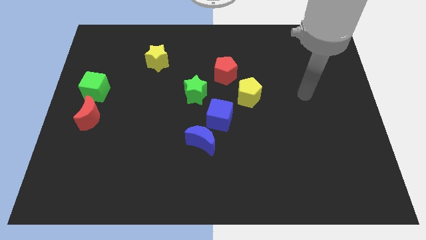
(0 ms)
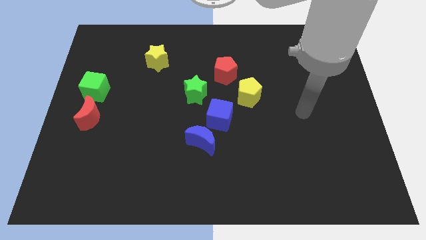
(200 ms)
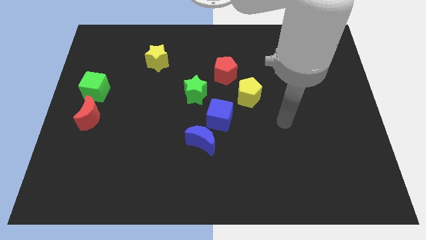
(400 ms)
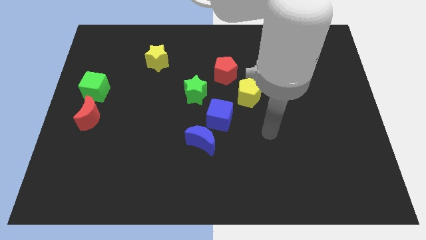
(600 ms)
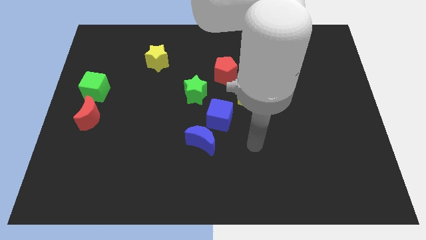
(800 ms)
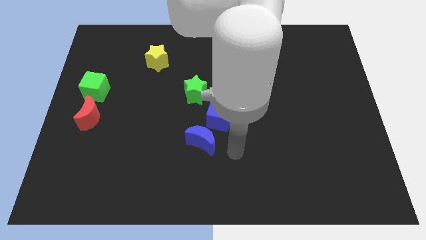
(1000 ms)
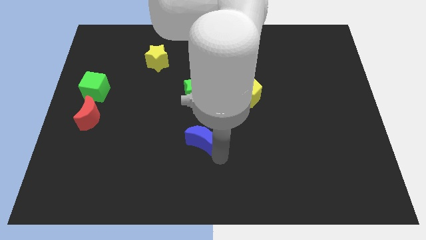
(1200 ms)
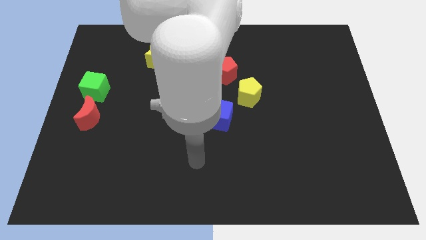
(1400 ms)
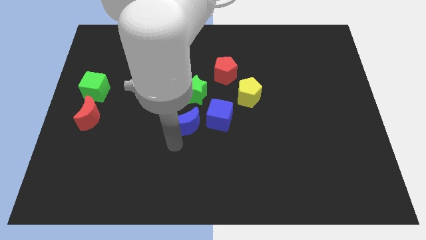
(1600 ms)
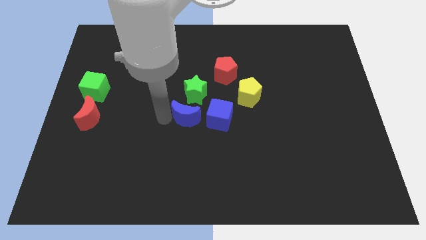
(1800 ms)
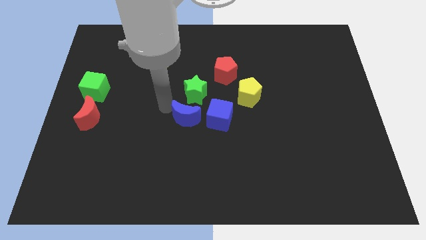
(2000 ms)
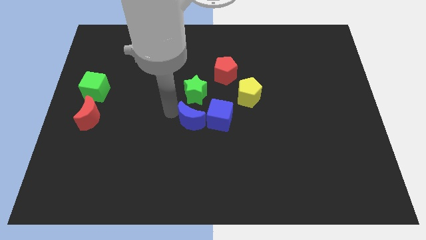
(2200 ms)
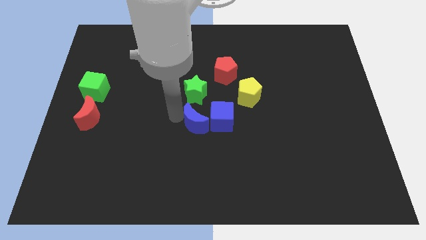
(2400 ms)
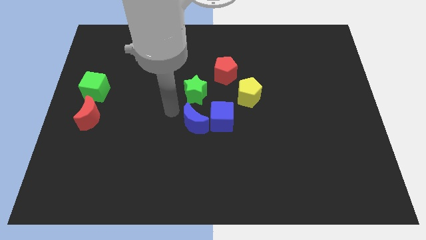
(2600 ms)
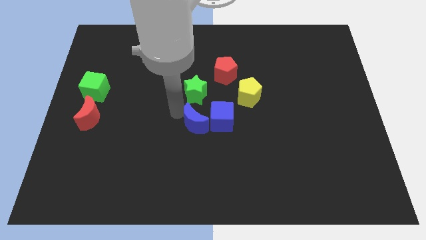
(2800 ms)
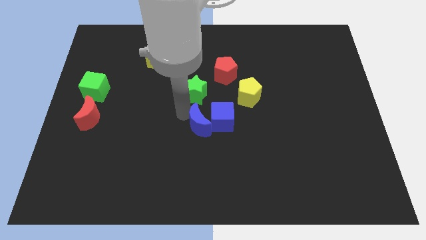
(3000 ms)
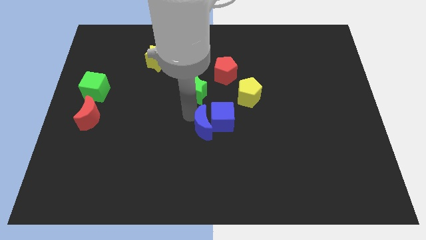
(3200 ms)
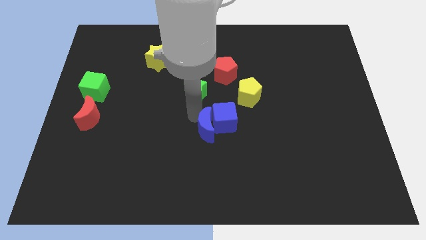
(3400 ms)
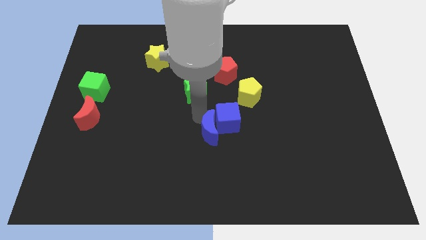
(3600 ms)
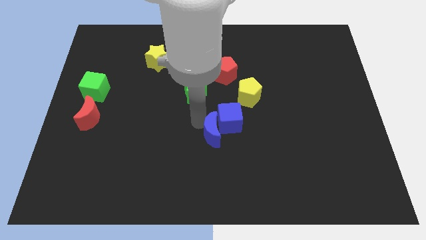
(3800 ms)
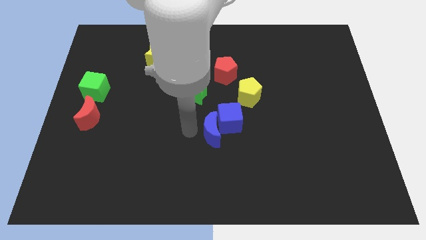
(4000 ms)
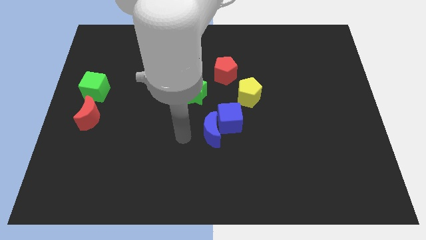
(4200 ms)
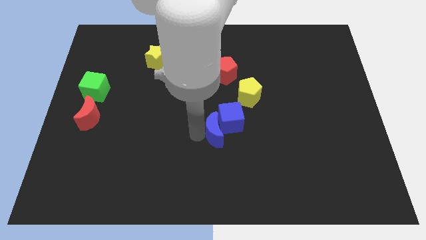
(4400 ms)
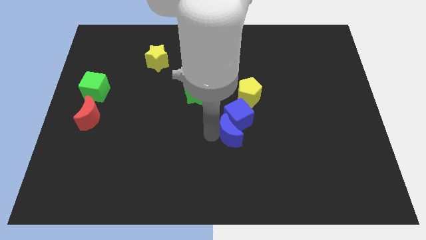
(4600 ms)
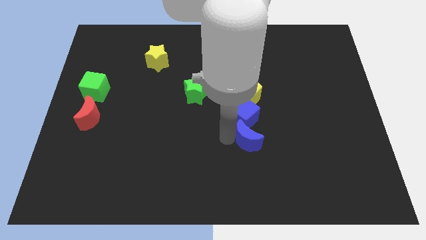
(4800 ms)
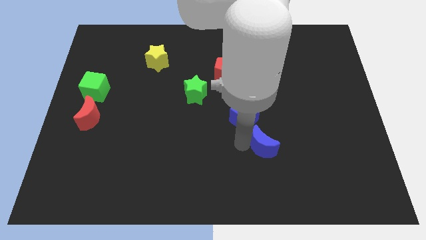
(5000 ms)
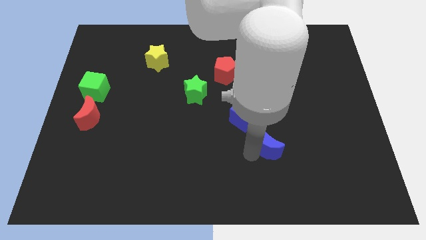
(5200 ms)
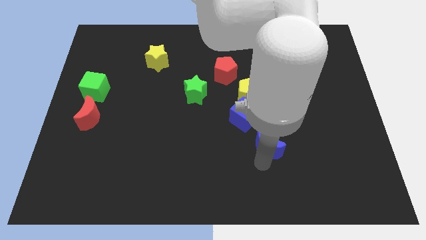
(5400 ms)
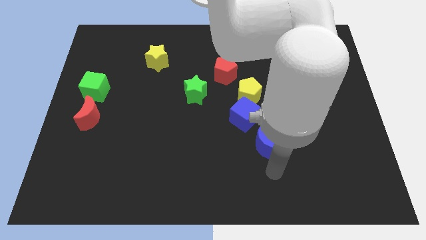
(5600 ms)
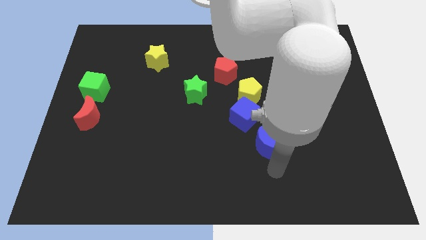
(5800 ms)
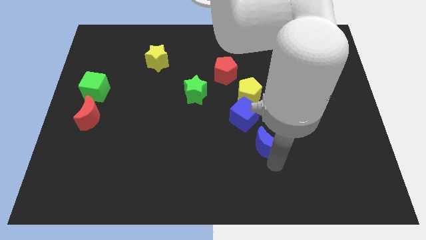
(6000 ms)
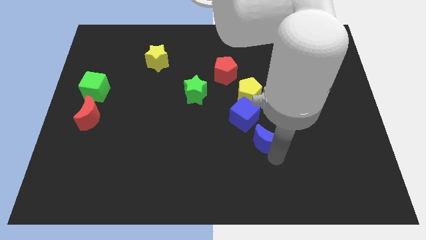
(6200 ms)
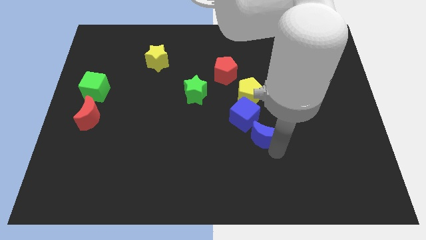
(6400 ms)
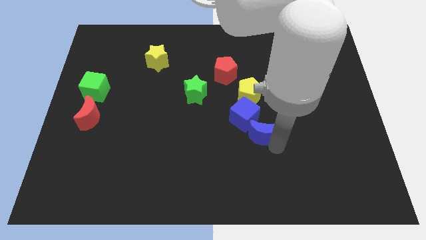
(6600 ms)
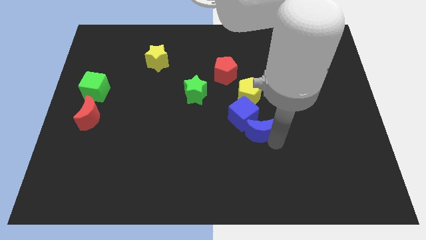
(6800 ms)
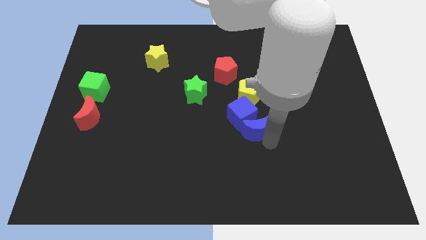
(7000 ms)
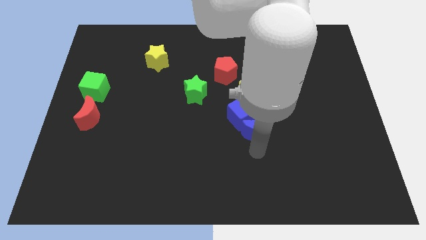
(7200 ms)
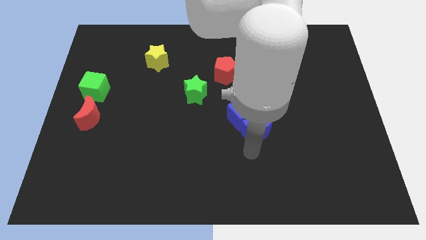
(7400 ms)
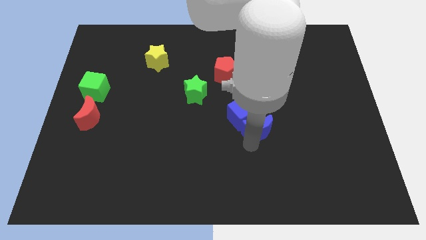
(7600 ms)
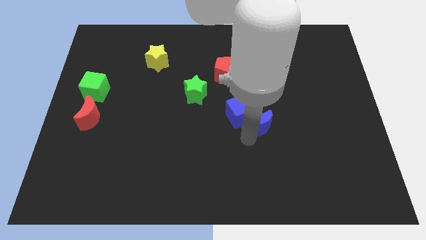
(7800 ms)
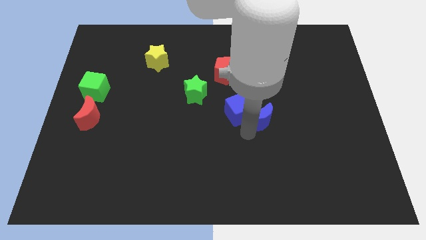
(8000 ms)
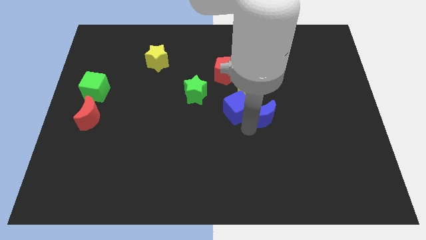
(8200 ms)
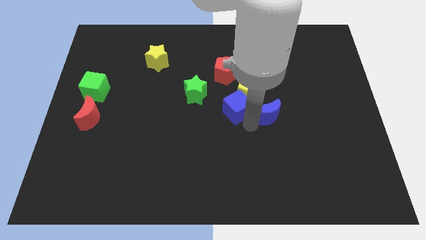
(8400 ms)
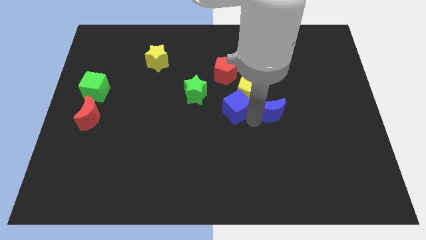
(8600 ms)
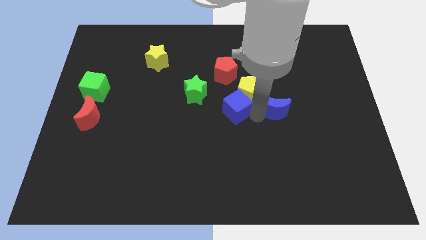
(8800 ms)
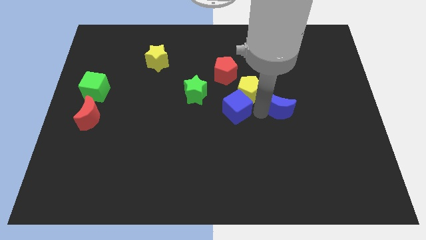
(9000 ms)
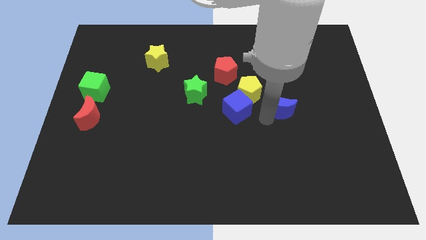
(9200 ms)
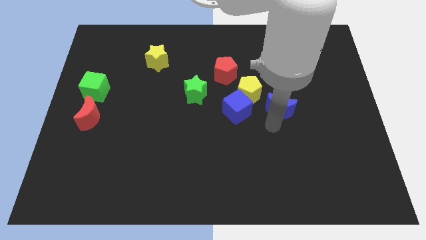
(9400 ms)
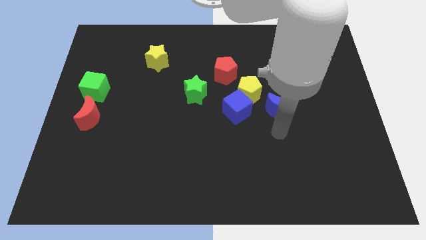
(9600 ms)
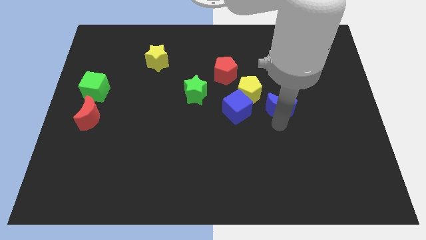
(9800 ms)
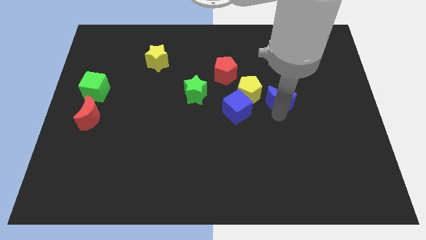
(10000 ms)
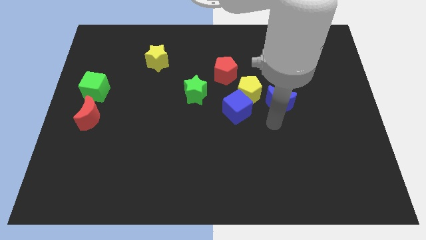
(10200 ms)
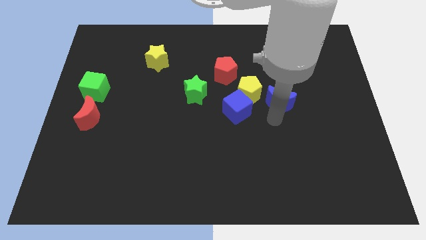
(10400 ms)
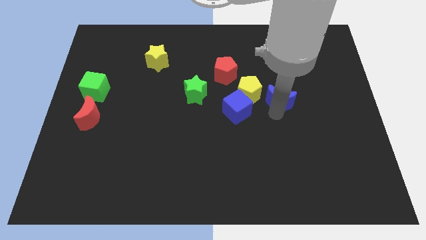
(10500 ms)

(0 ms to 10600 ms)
slide the blue moon diagonally upwards and right

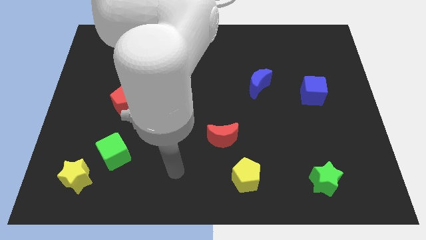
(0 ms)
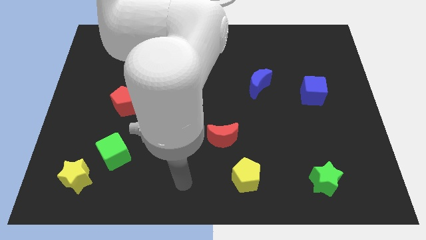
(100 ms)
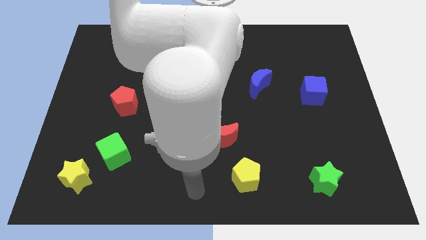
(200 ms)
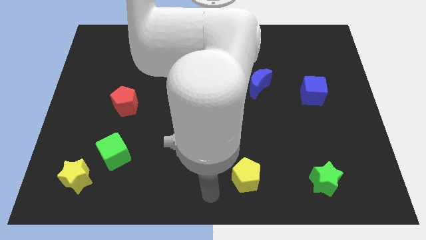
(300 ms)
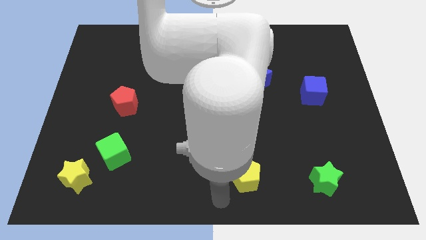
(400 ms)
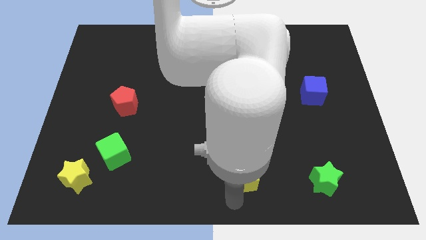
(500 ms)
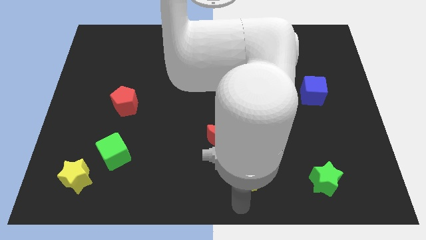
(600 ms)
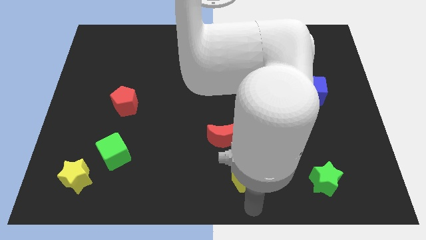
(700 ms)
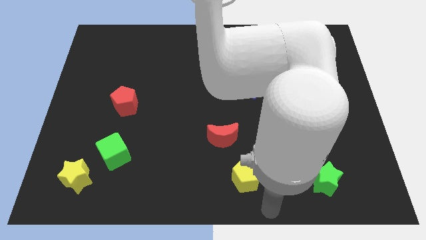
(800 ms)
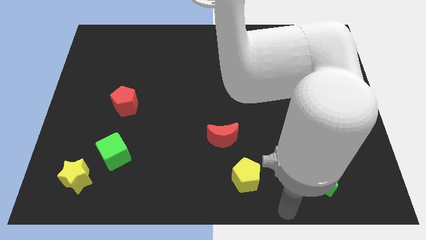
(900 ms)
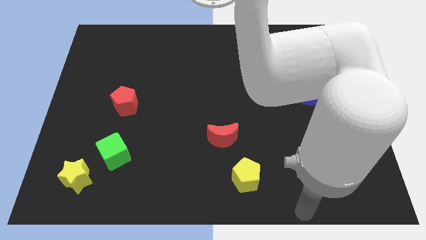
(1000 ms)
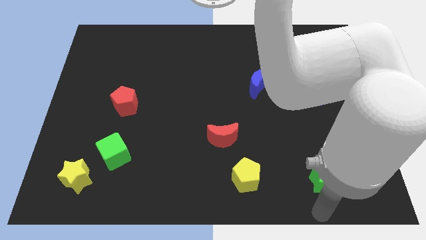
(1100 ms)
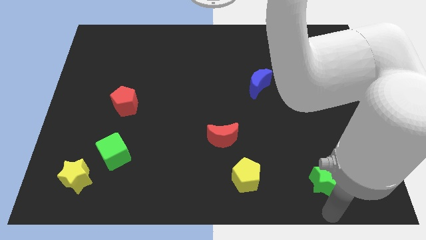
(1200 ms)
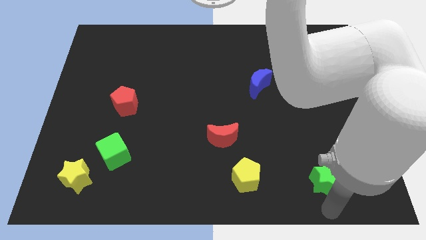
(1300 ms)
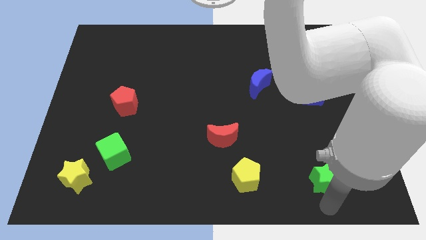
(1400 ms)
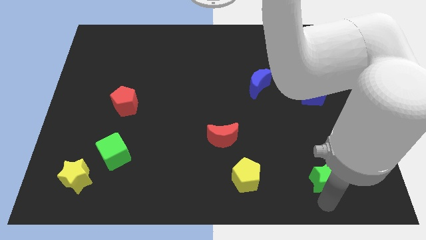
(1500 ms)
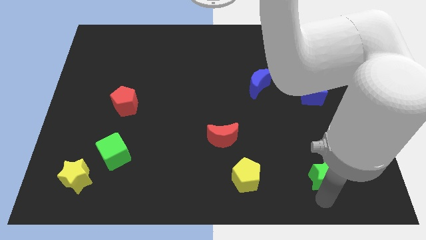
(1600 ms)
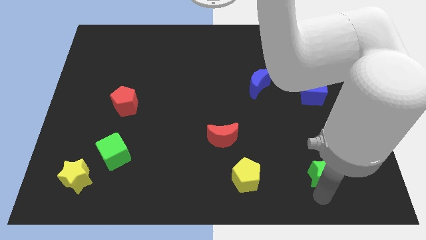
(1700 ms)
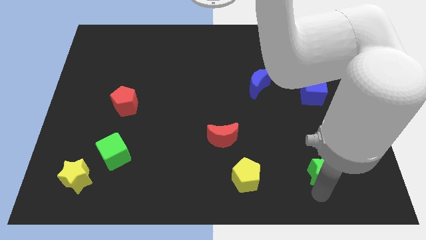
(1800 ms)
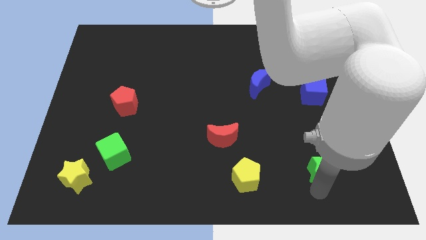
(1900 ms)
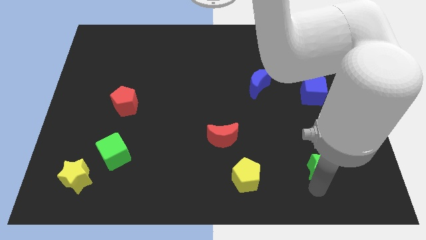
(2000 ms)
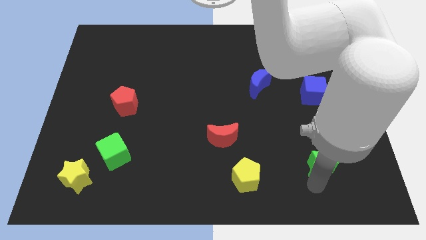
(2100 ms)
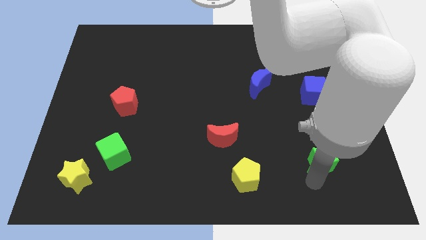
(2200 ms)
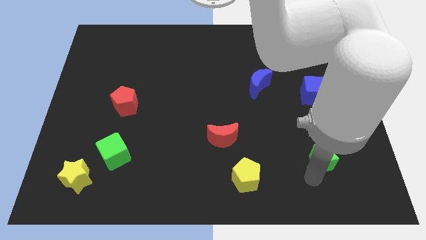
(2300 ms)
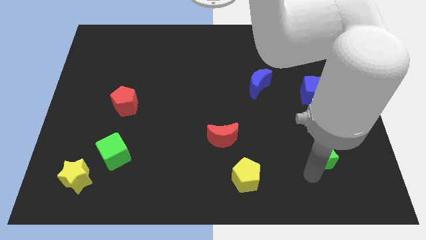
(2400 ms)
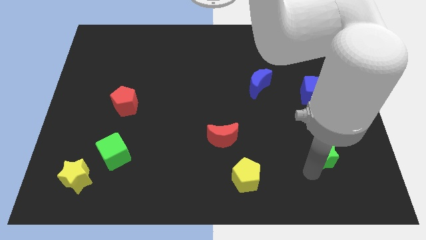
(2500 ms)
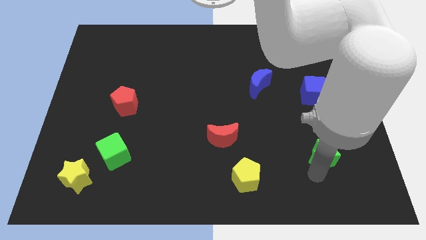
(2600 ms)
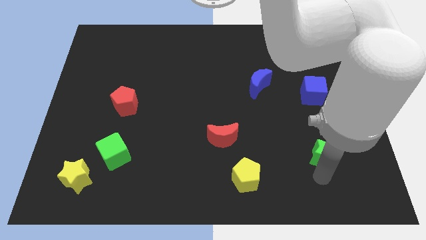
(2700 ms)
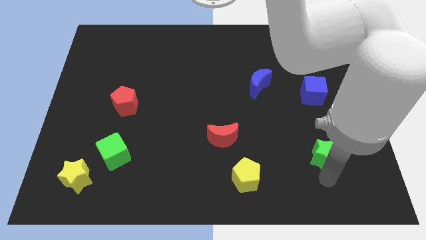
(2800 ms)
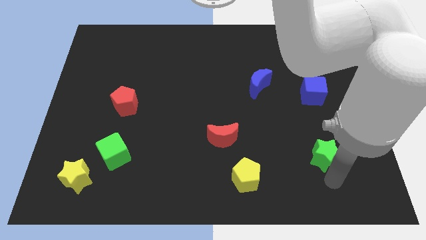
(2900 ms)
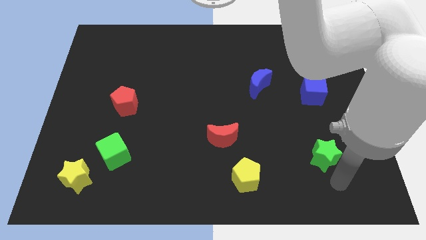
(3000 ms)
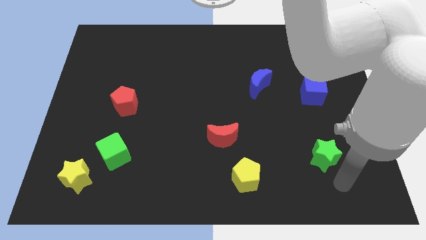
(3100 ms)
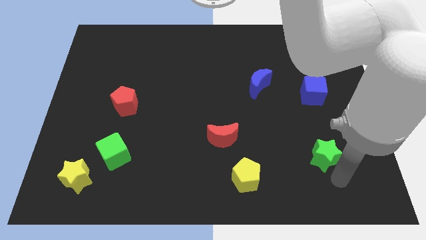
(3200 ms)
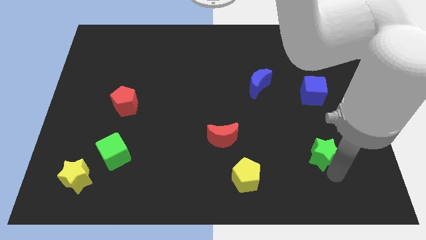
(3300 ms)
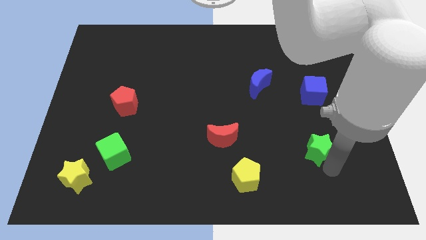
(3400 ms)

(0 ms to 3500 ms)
push the green star slightly upwards
